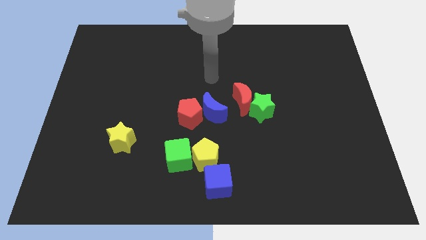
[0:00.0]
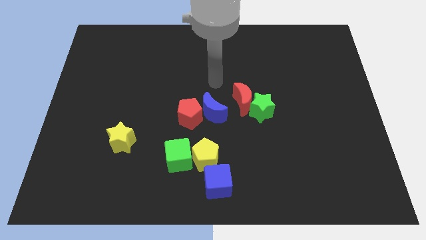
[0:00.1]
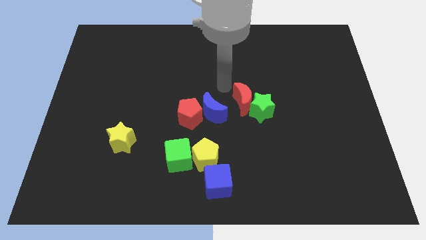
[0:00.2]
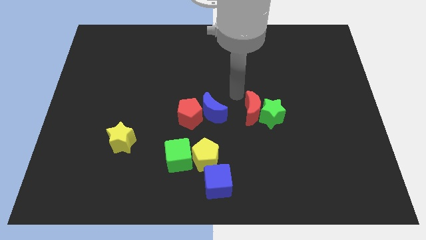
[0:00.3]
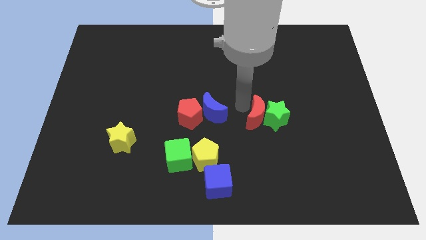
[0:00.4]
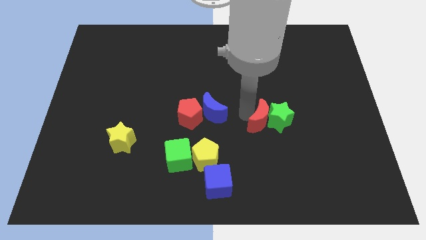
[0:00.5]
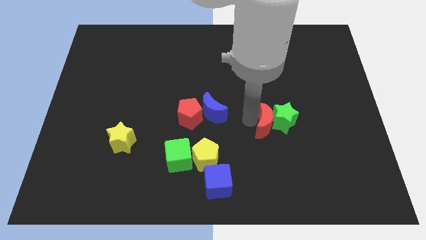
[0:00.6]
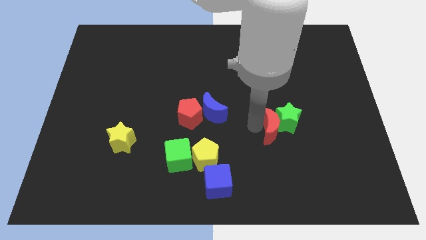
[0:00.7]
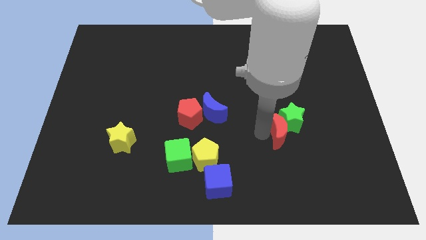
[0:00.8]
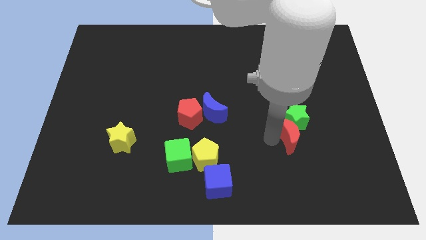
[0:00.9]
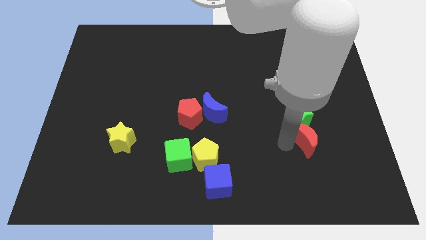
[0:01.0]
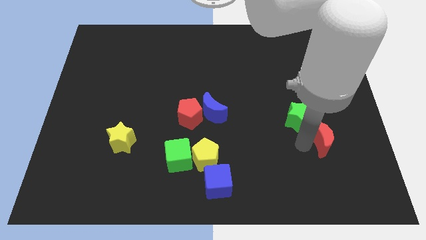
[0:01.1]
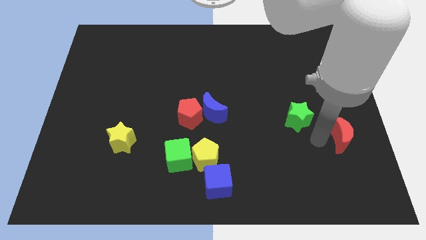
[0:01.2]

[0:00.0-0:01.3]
move the green star away from the red moon

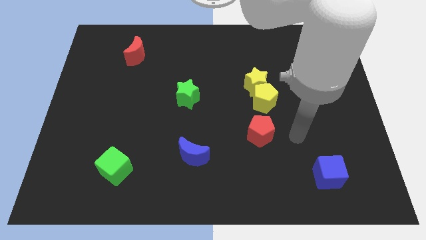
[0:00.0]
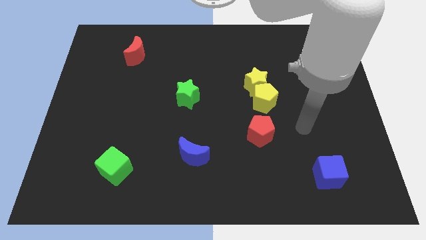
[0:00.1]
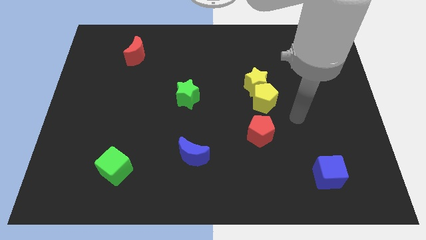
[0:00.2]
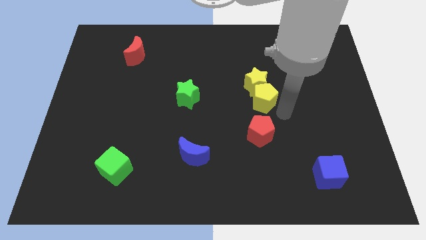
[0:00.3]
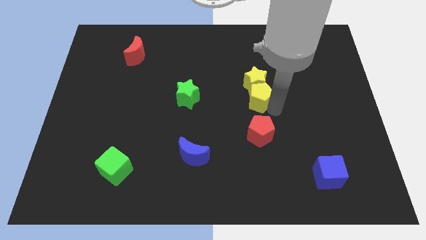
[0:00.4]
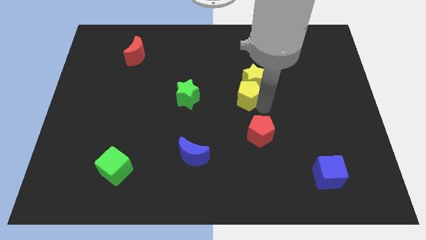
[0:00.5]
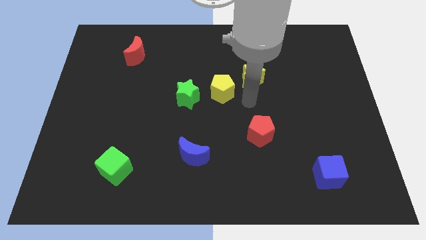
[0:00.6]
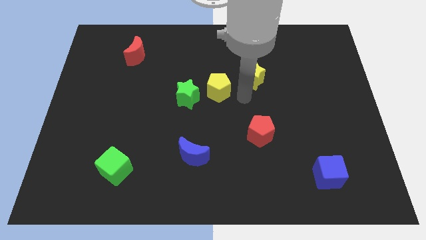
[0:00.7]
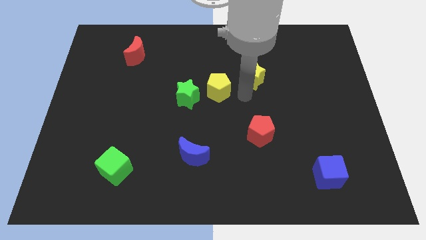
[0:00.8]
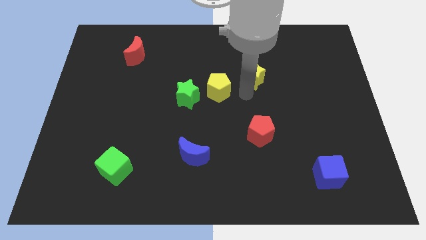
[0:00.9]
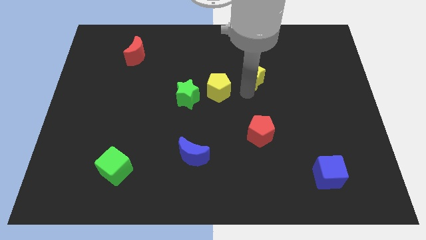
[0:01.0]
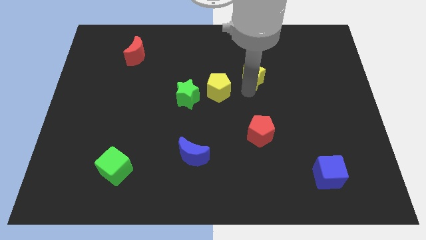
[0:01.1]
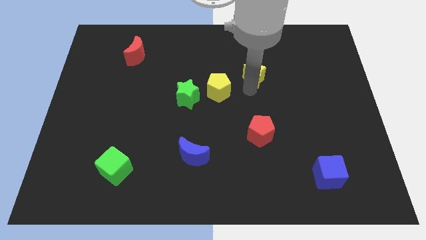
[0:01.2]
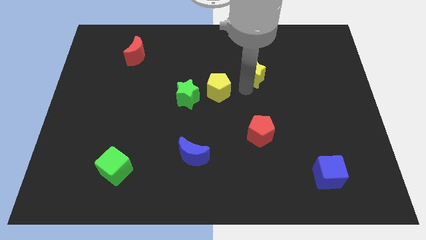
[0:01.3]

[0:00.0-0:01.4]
move the yellow star away from the yellow pentagon

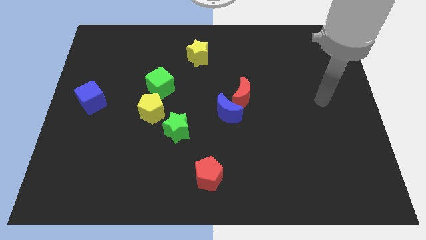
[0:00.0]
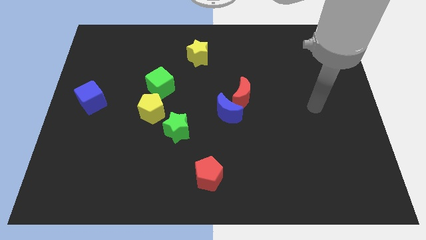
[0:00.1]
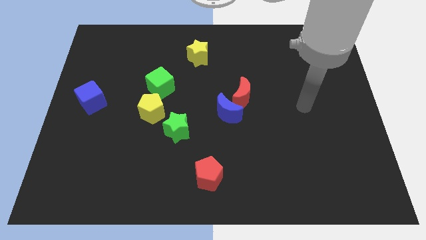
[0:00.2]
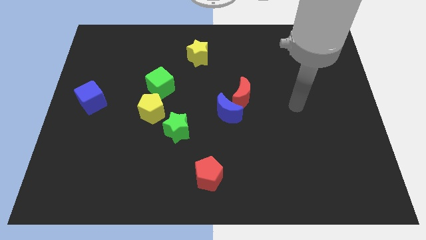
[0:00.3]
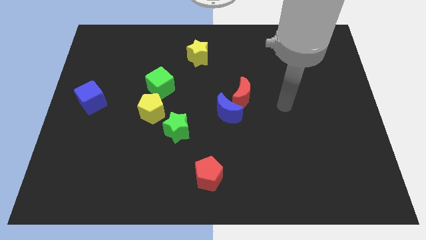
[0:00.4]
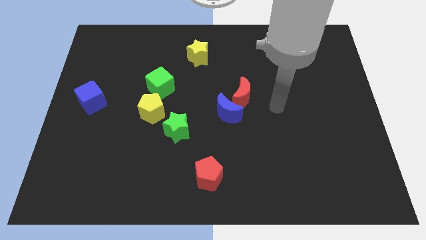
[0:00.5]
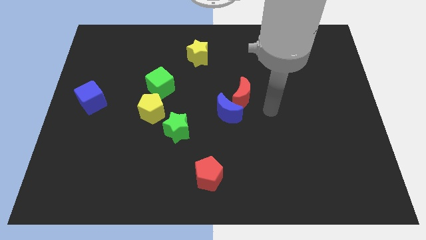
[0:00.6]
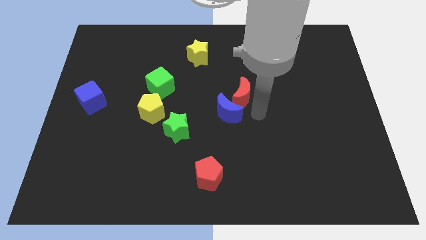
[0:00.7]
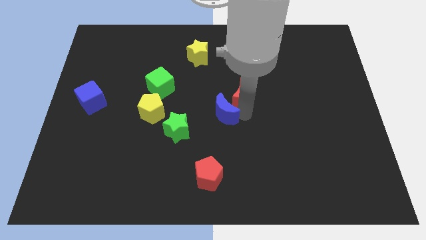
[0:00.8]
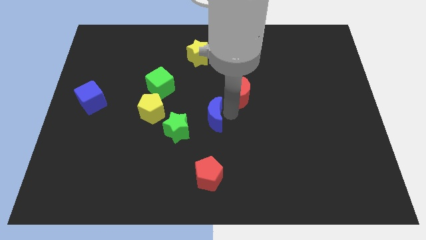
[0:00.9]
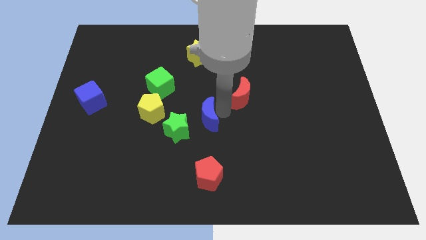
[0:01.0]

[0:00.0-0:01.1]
separate the red moon from the blue moon

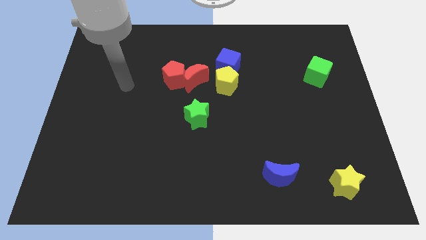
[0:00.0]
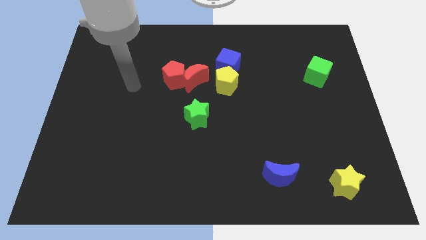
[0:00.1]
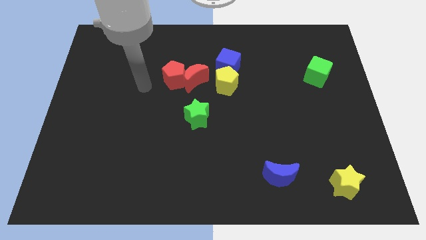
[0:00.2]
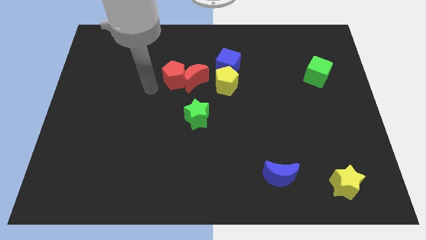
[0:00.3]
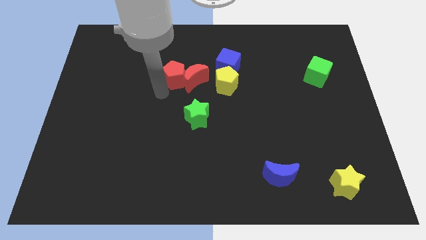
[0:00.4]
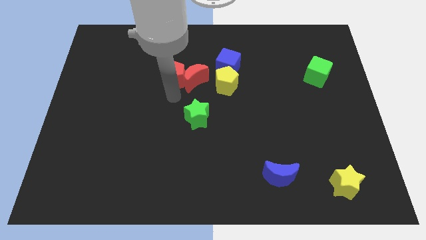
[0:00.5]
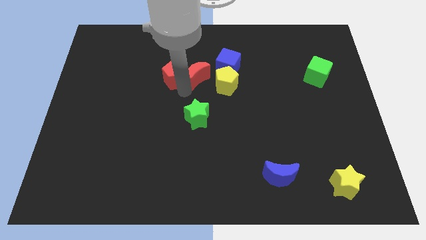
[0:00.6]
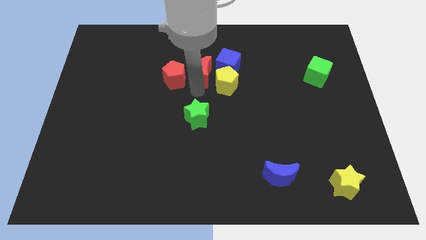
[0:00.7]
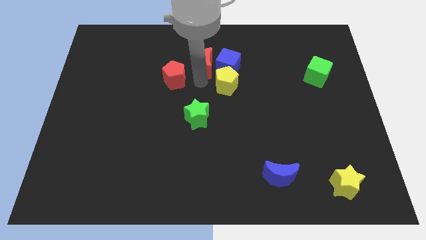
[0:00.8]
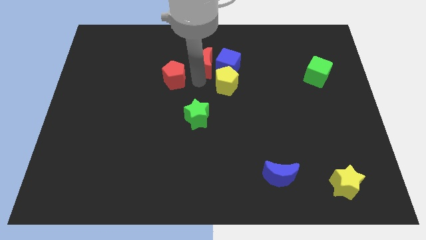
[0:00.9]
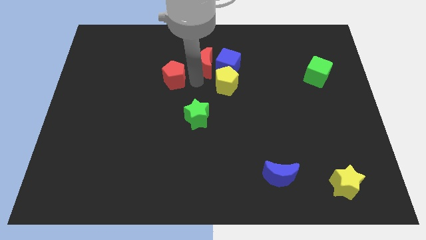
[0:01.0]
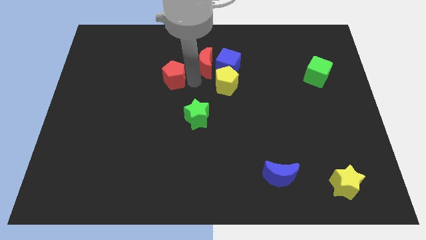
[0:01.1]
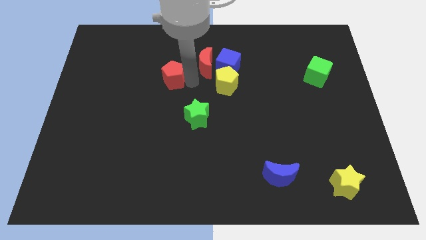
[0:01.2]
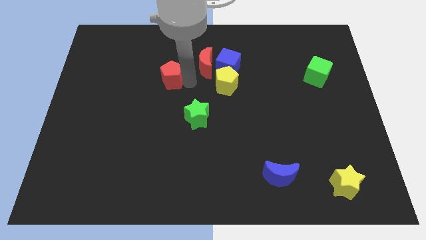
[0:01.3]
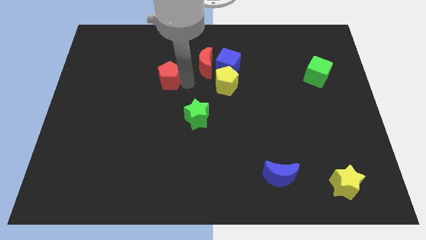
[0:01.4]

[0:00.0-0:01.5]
separate the red pentagon from the red moon

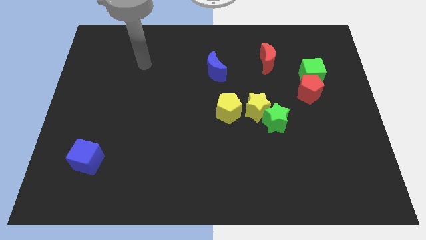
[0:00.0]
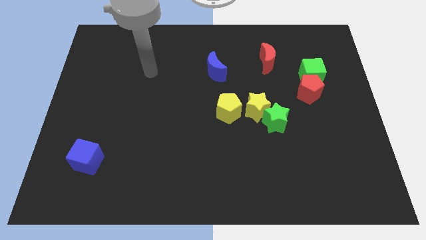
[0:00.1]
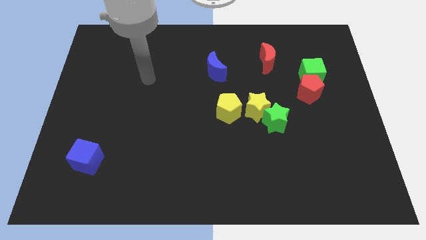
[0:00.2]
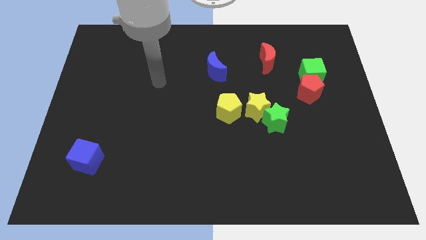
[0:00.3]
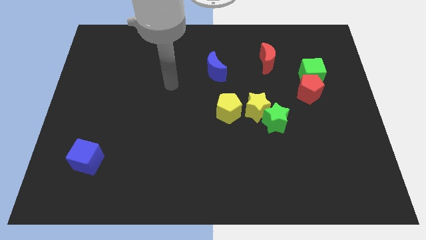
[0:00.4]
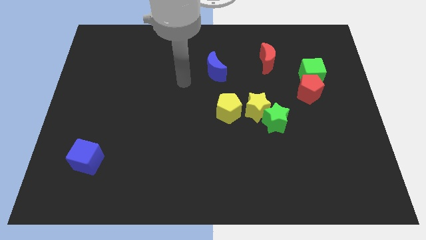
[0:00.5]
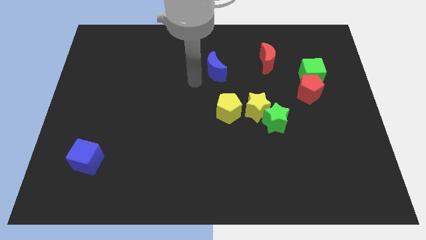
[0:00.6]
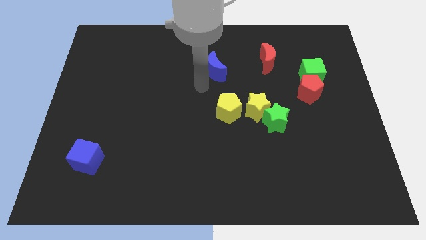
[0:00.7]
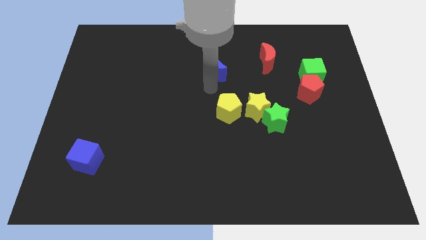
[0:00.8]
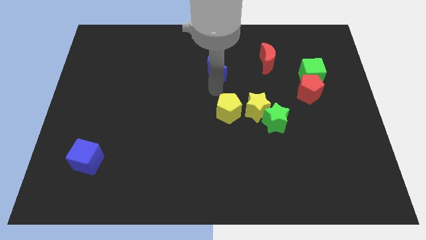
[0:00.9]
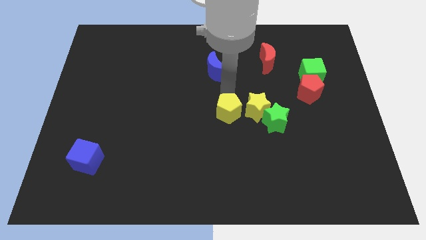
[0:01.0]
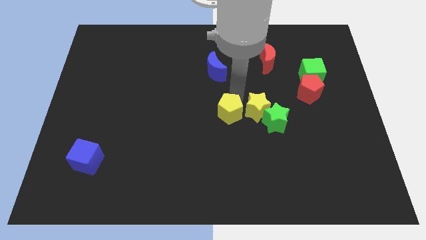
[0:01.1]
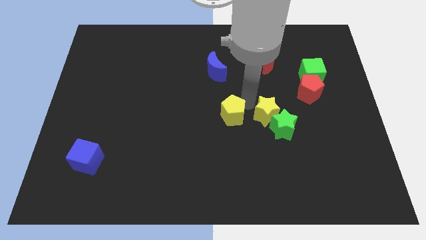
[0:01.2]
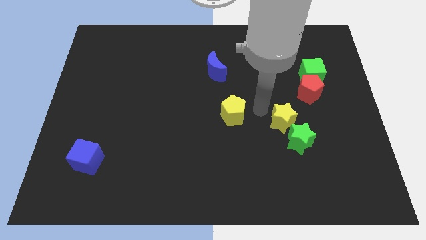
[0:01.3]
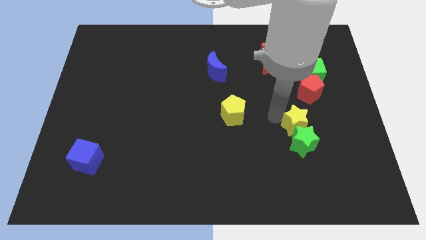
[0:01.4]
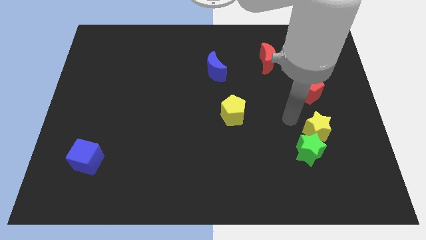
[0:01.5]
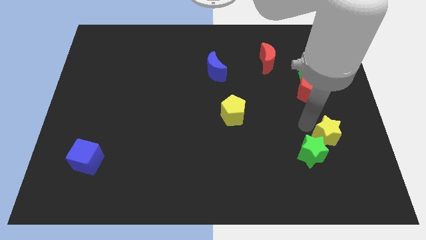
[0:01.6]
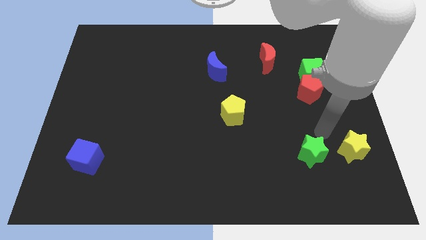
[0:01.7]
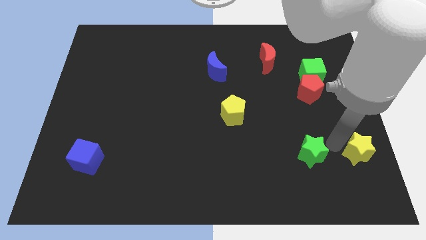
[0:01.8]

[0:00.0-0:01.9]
move the green star away from the yellow star

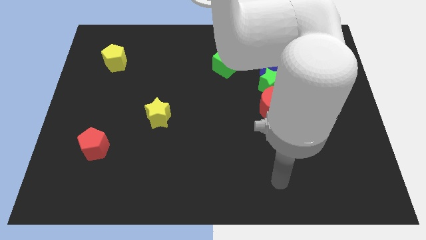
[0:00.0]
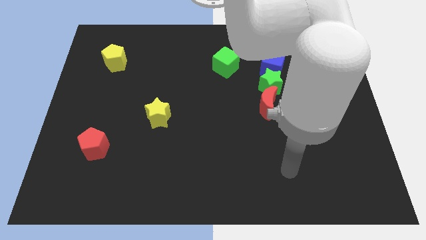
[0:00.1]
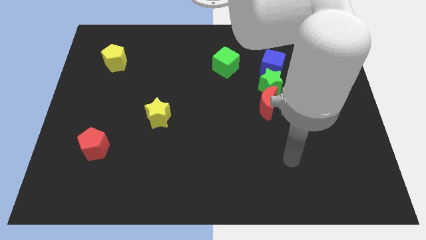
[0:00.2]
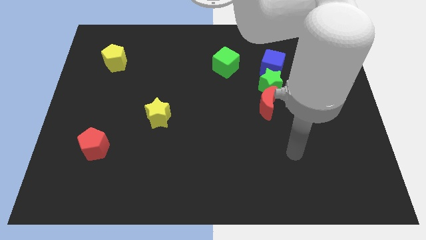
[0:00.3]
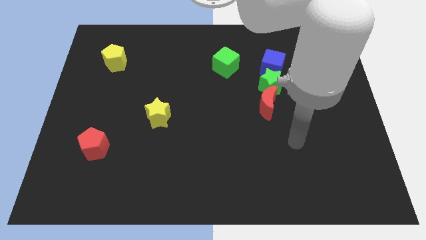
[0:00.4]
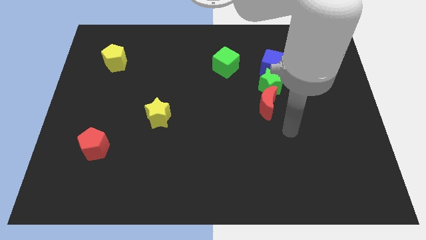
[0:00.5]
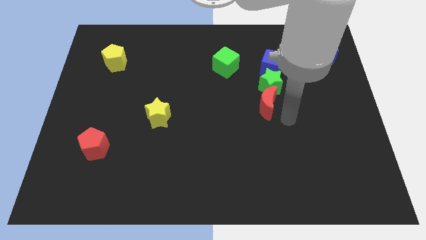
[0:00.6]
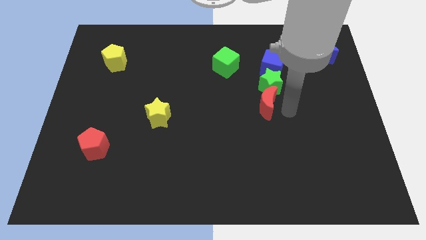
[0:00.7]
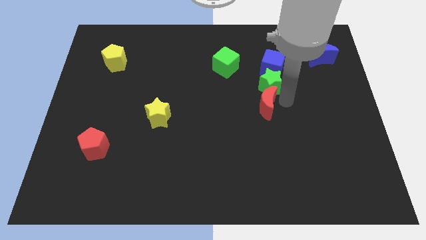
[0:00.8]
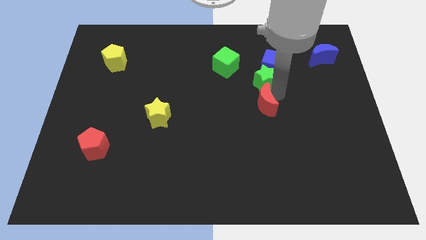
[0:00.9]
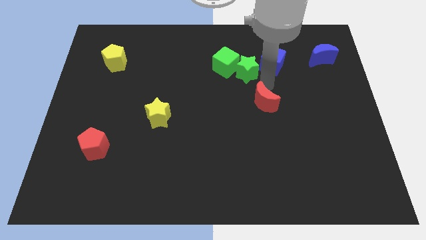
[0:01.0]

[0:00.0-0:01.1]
move the red moon away from the green star

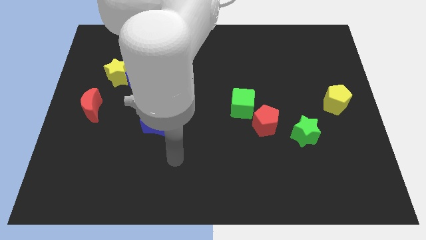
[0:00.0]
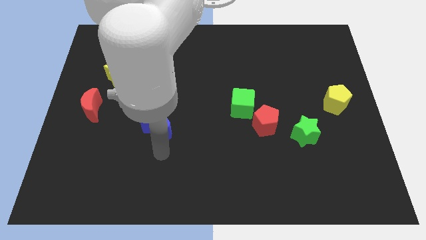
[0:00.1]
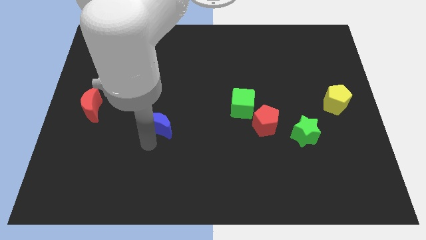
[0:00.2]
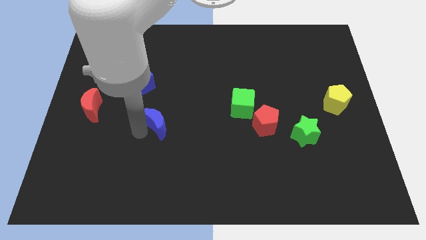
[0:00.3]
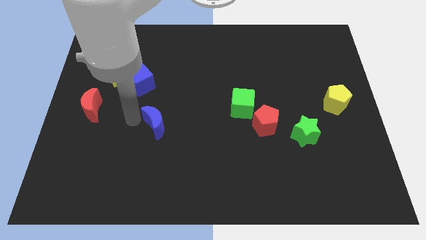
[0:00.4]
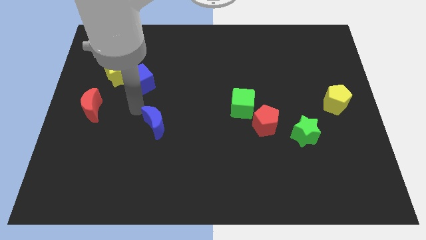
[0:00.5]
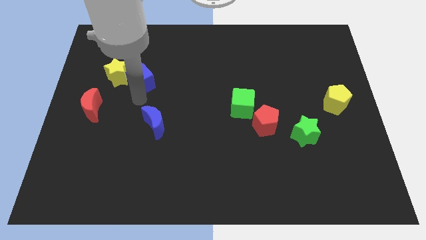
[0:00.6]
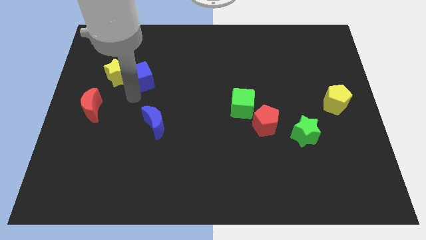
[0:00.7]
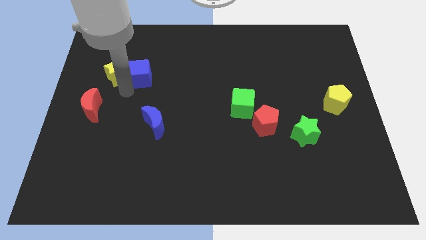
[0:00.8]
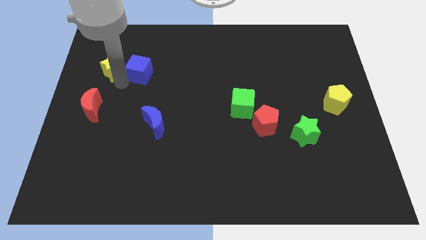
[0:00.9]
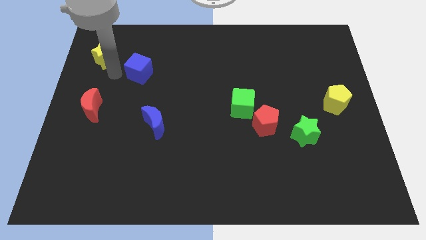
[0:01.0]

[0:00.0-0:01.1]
pull the blue cube apart from the yellow star
